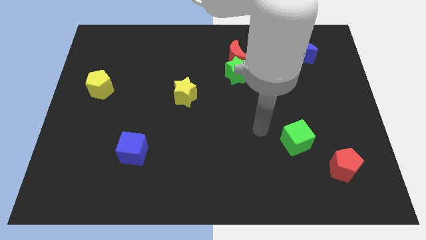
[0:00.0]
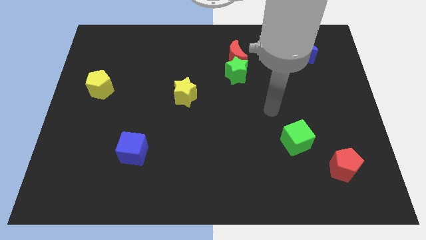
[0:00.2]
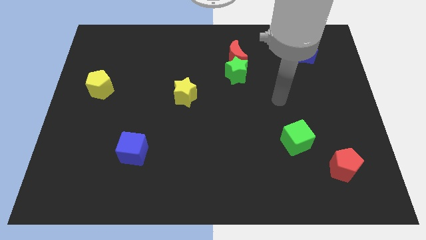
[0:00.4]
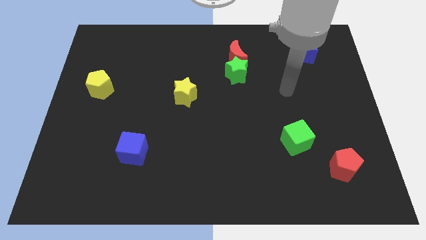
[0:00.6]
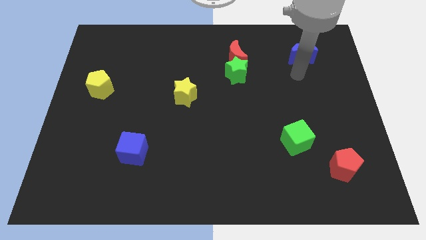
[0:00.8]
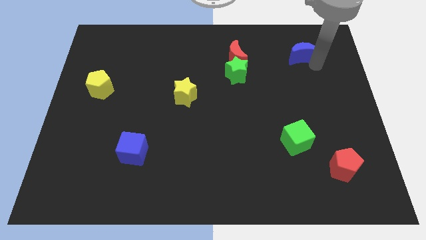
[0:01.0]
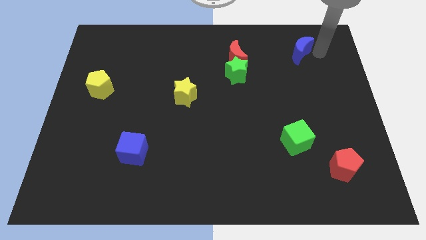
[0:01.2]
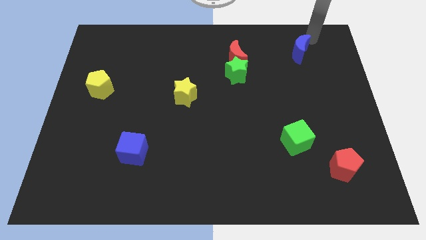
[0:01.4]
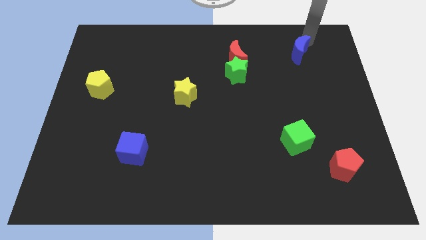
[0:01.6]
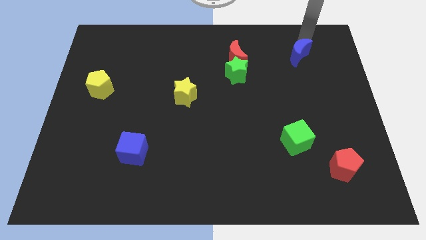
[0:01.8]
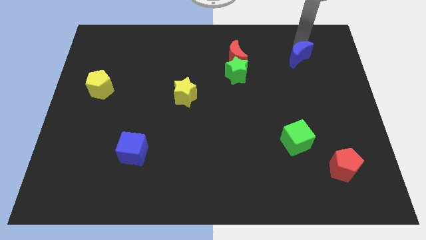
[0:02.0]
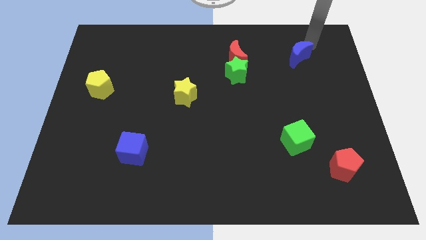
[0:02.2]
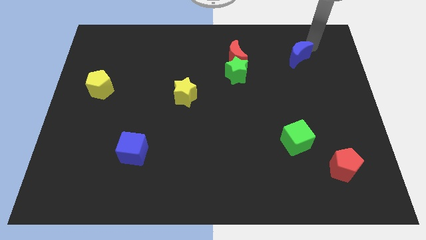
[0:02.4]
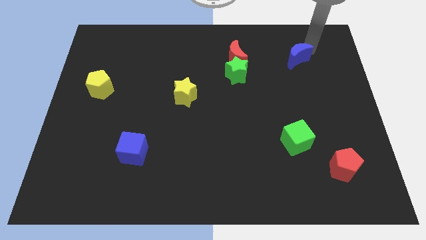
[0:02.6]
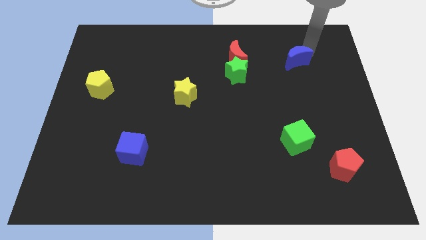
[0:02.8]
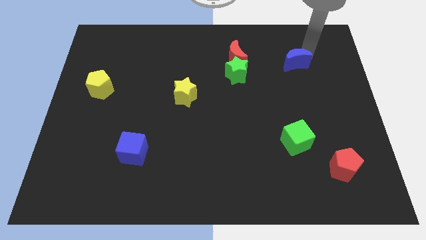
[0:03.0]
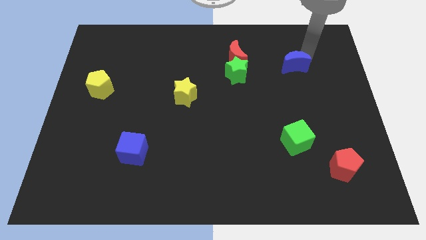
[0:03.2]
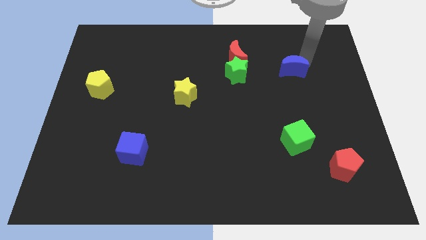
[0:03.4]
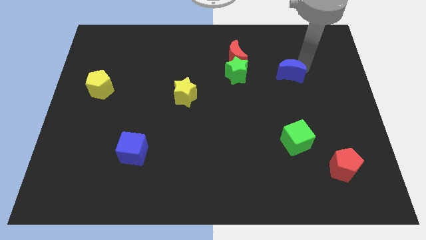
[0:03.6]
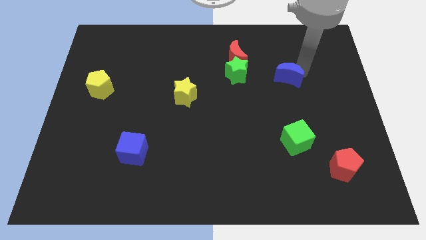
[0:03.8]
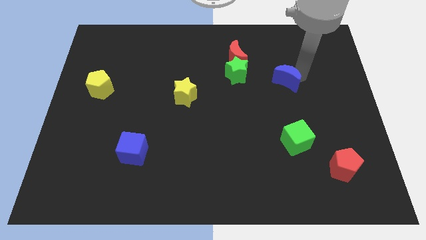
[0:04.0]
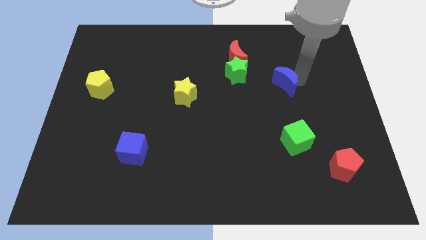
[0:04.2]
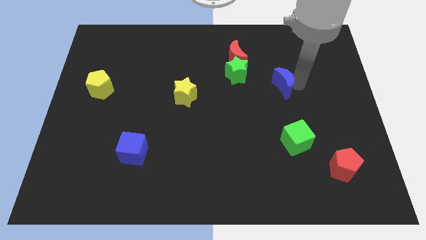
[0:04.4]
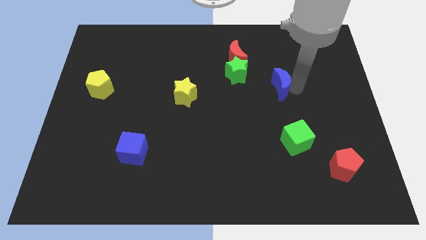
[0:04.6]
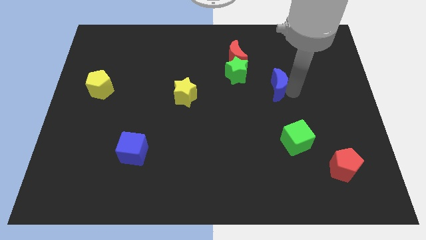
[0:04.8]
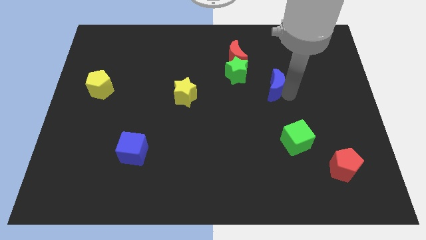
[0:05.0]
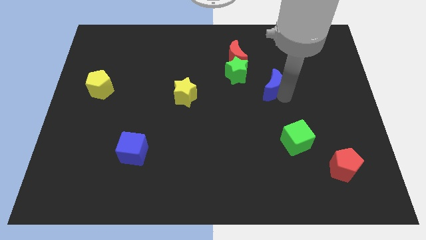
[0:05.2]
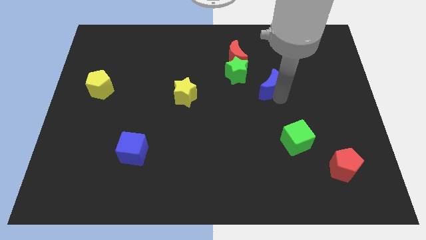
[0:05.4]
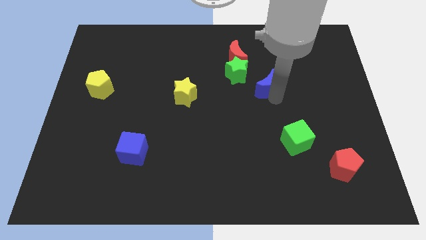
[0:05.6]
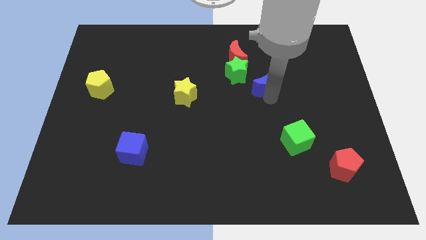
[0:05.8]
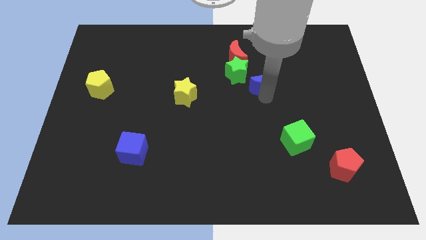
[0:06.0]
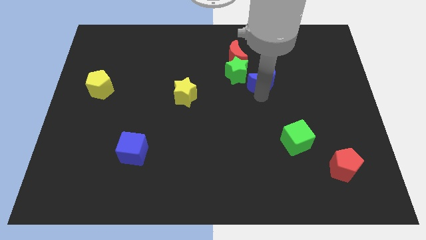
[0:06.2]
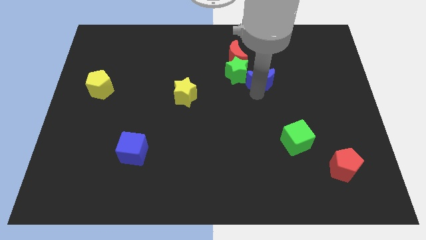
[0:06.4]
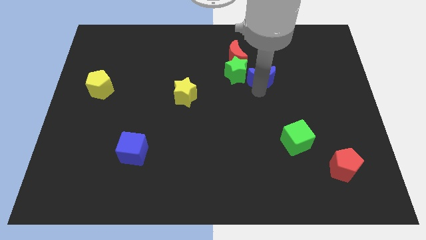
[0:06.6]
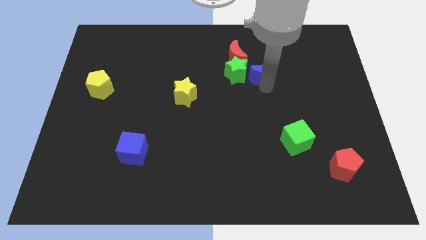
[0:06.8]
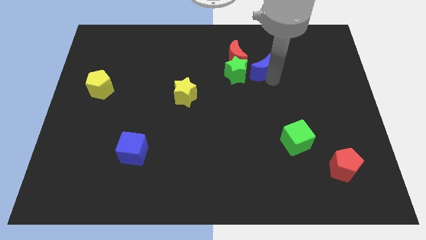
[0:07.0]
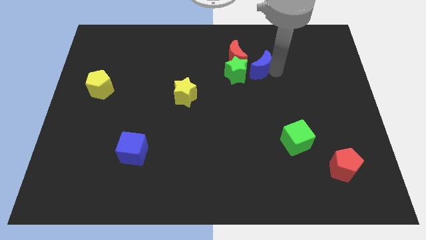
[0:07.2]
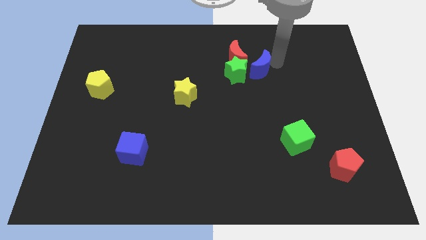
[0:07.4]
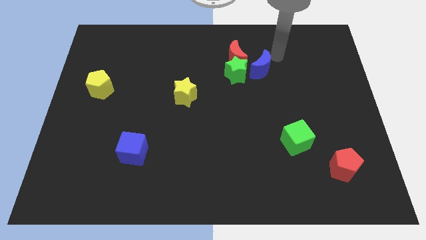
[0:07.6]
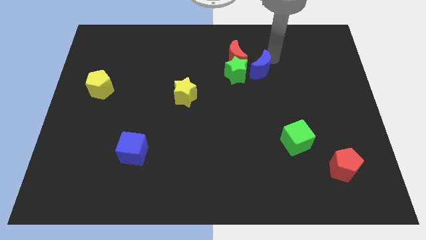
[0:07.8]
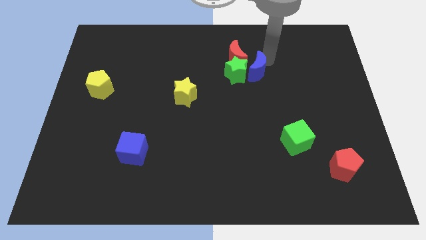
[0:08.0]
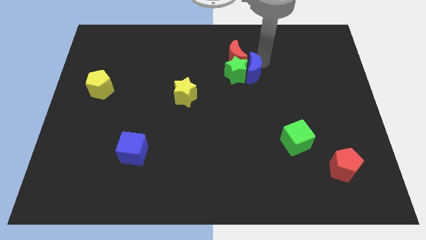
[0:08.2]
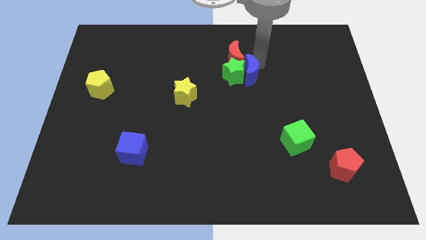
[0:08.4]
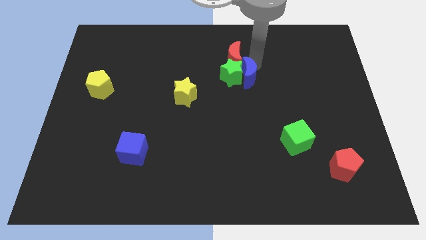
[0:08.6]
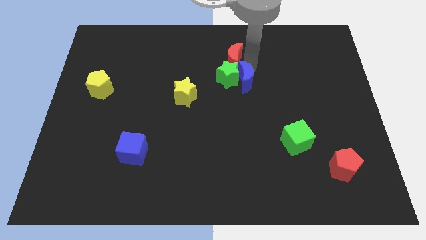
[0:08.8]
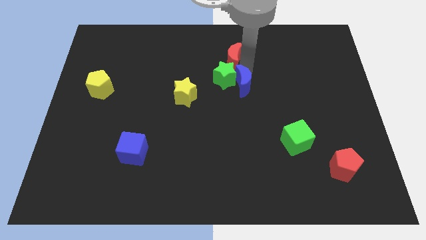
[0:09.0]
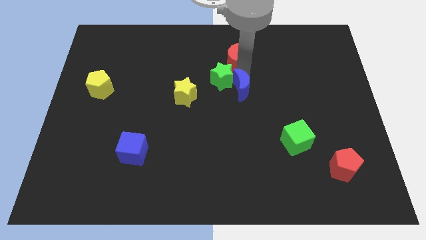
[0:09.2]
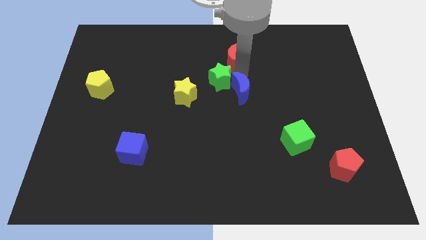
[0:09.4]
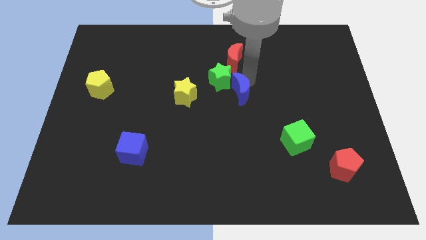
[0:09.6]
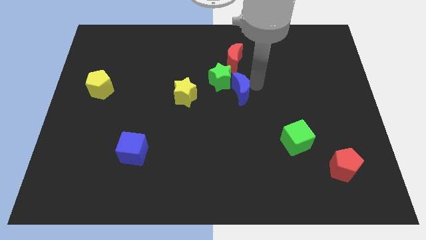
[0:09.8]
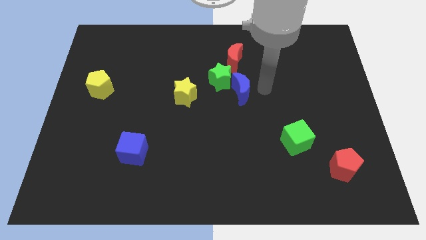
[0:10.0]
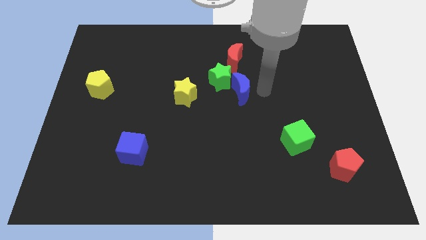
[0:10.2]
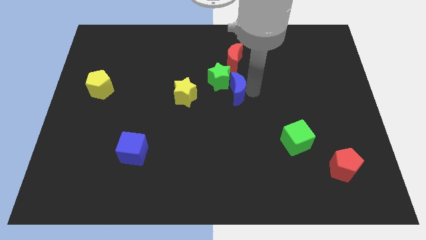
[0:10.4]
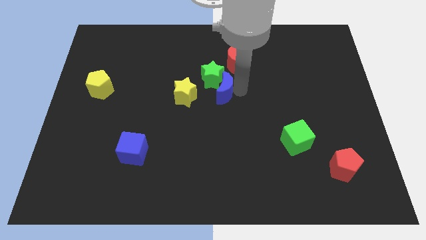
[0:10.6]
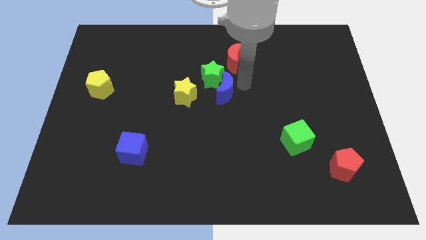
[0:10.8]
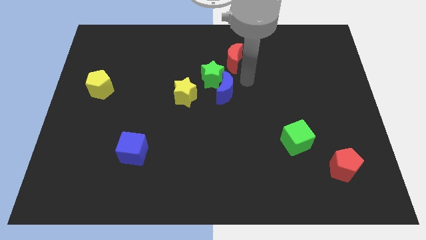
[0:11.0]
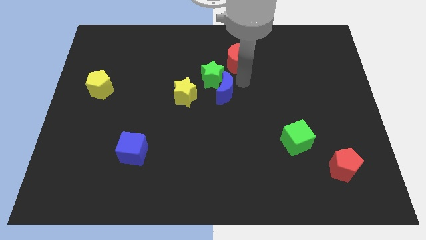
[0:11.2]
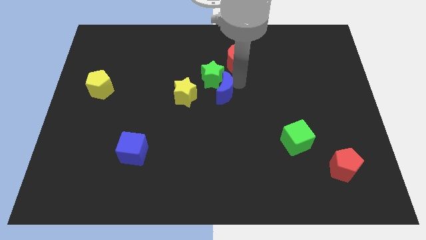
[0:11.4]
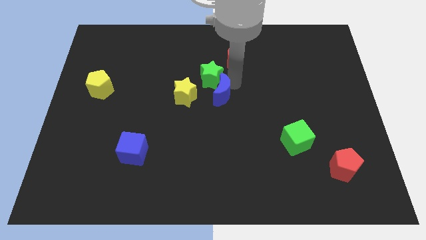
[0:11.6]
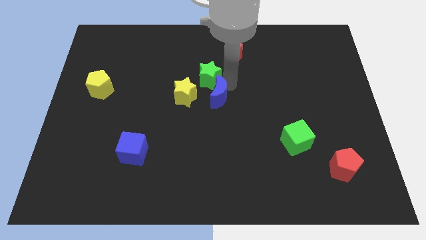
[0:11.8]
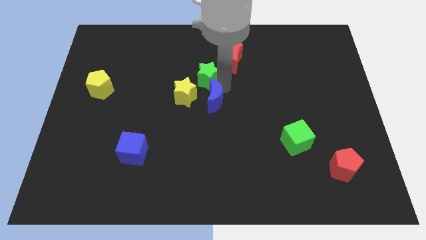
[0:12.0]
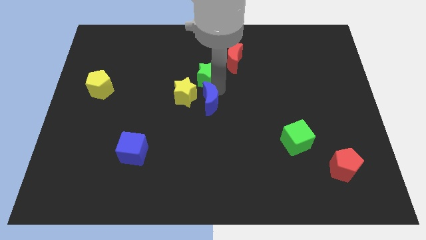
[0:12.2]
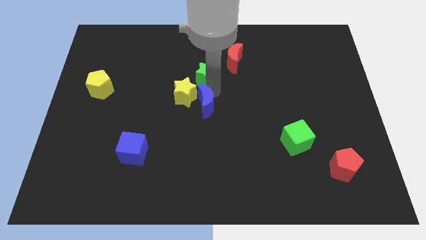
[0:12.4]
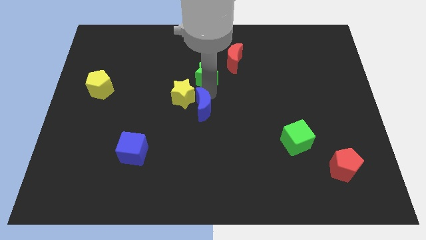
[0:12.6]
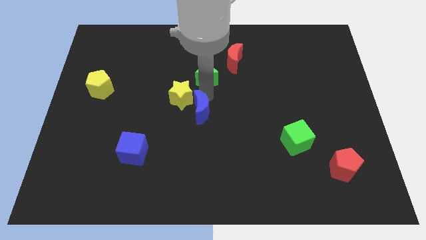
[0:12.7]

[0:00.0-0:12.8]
slide the blue moon below the yellow star
